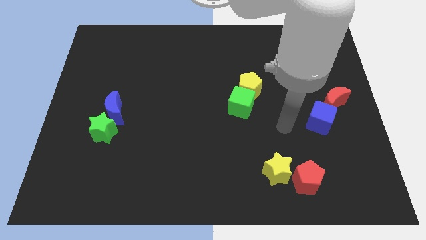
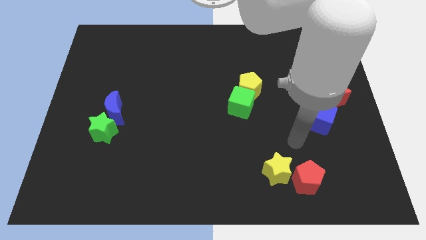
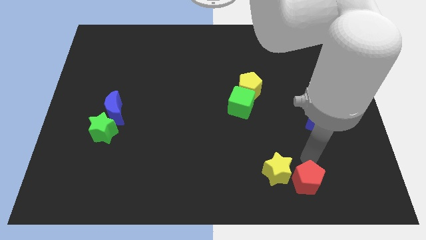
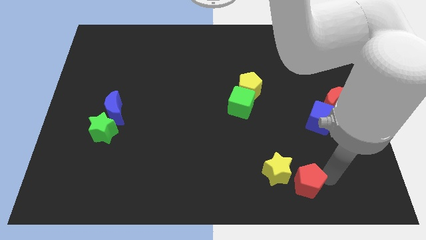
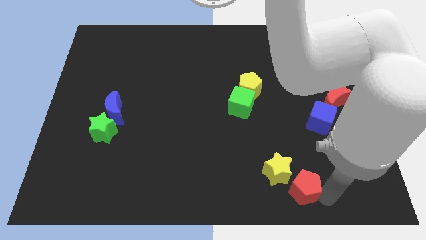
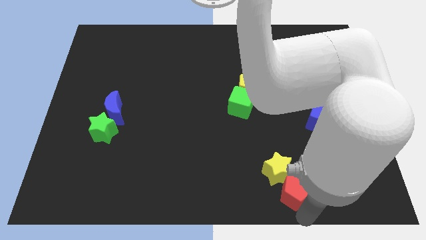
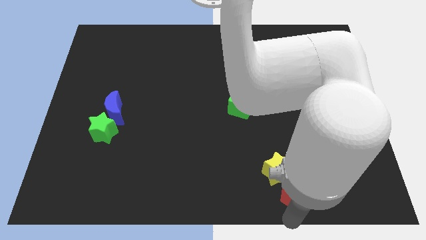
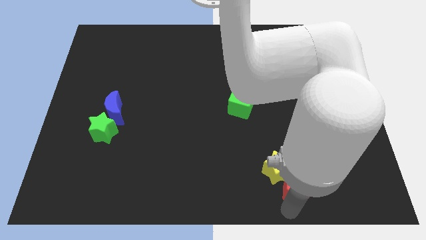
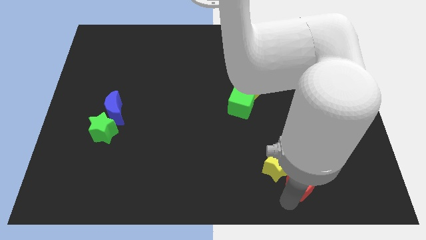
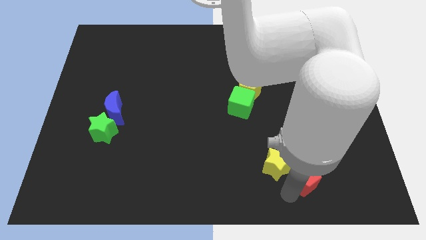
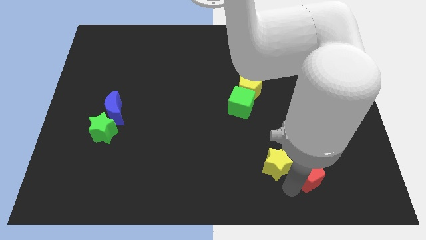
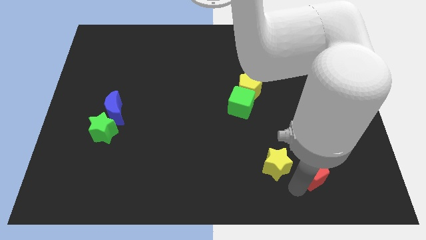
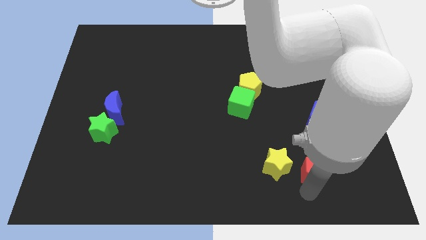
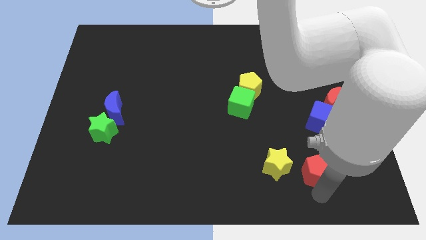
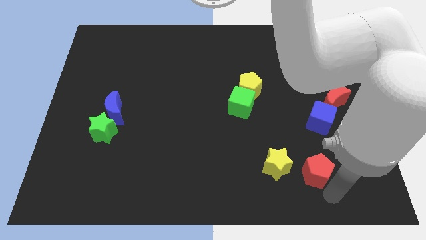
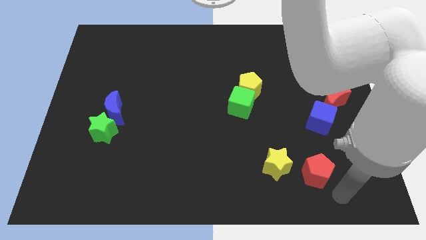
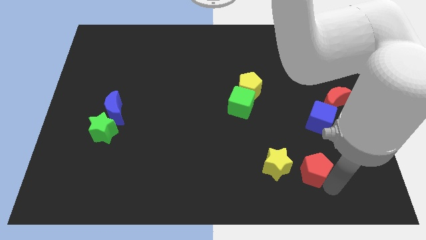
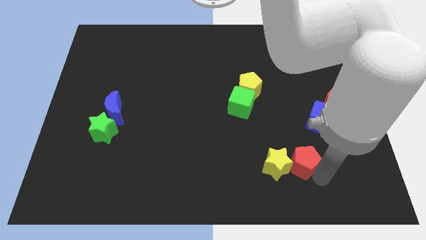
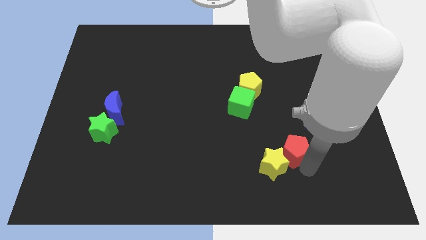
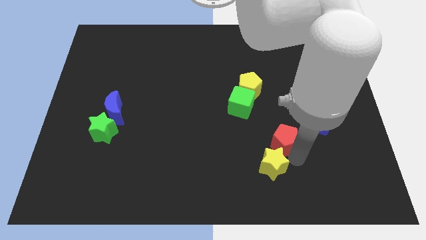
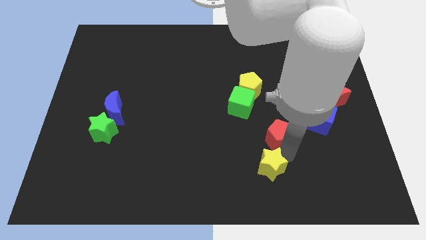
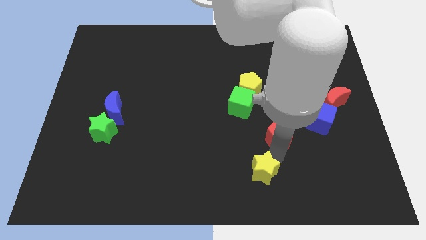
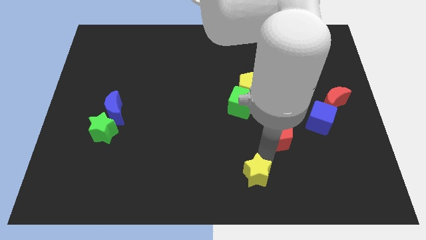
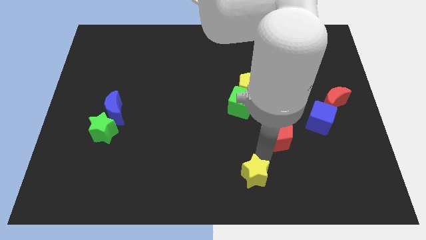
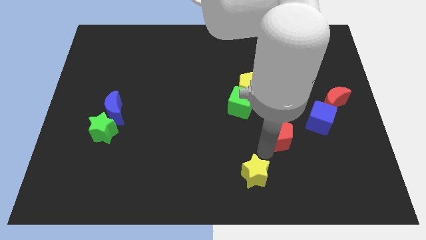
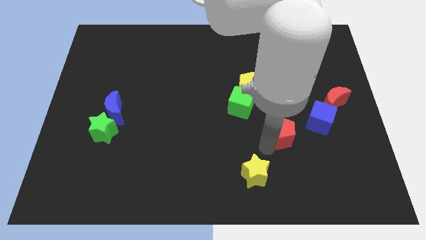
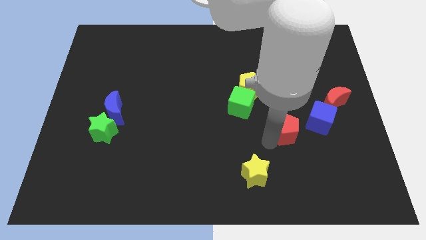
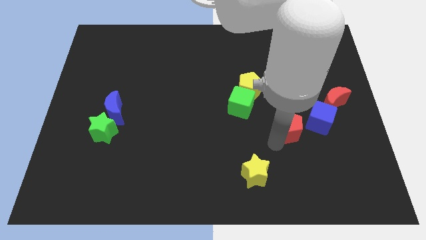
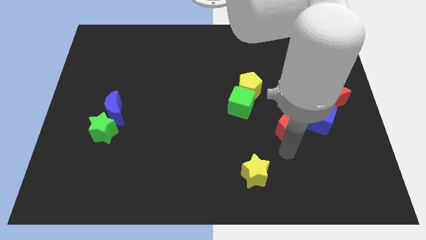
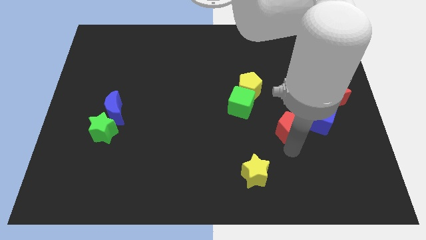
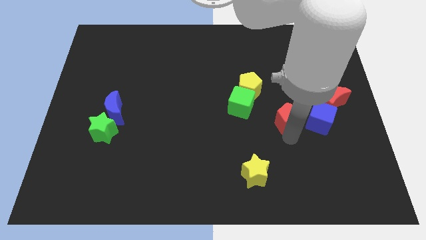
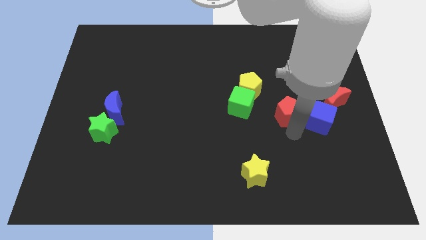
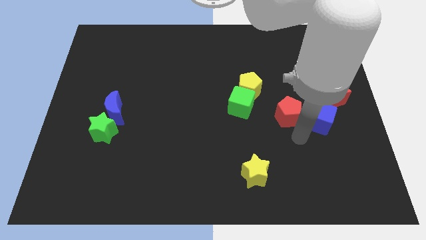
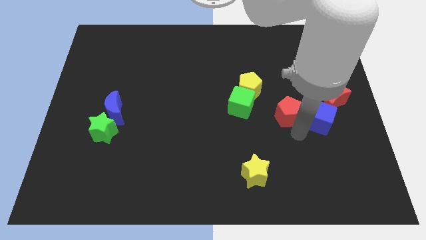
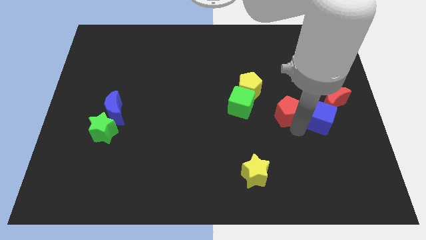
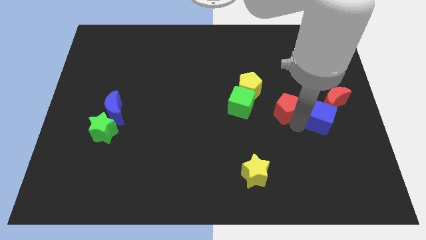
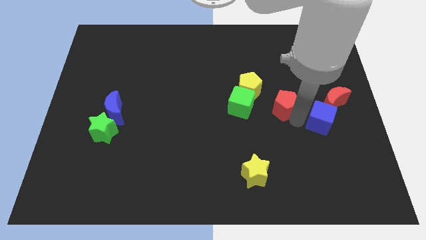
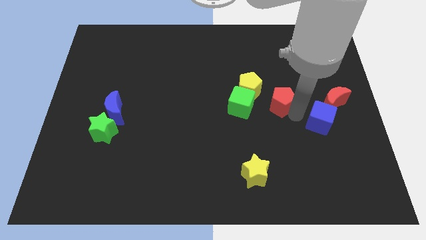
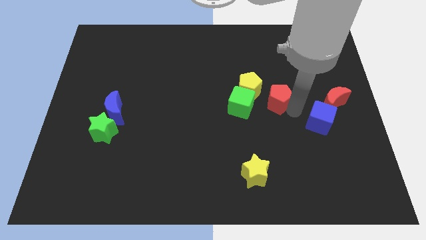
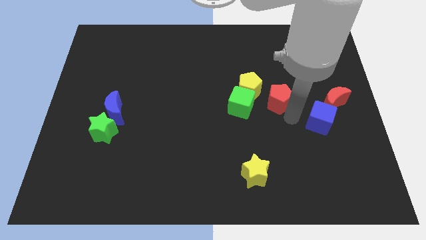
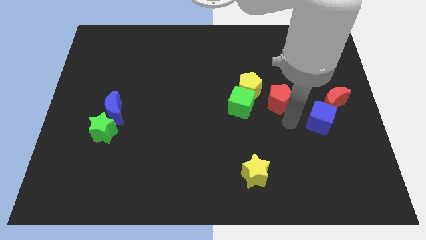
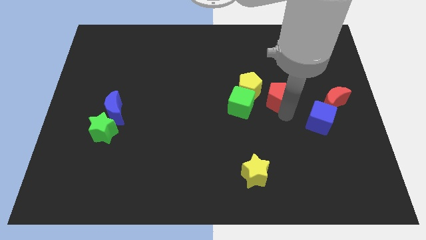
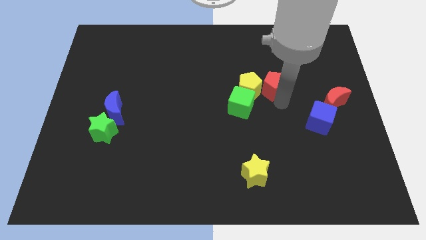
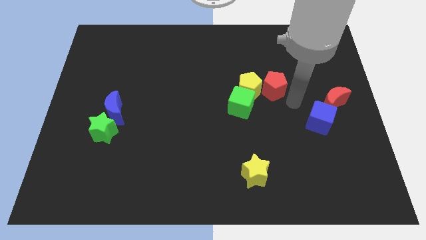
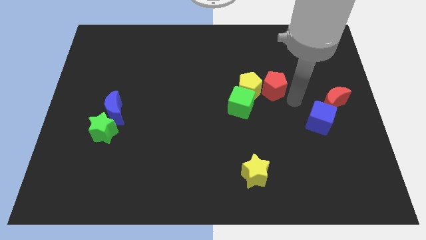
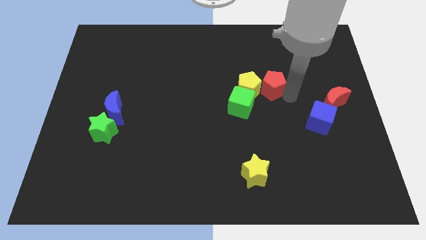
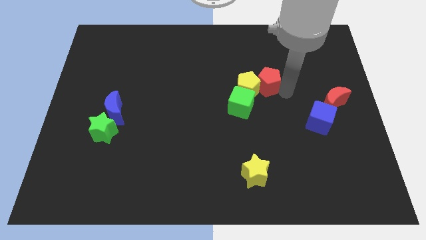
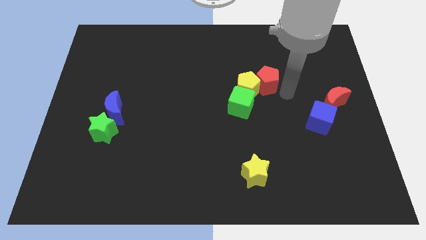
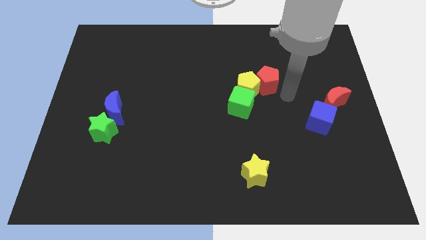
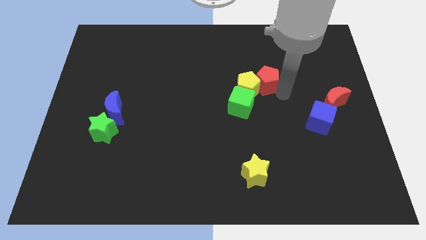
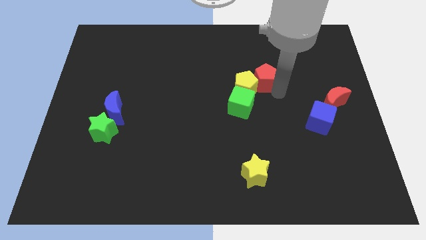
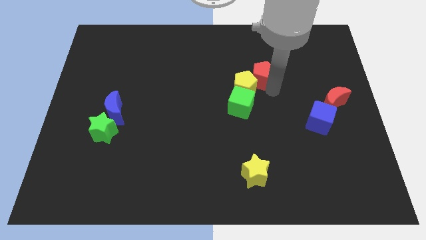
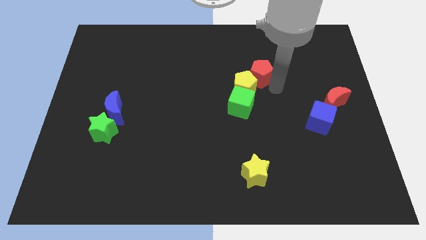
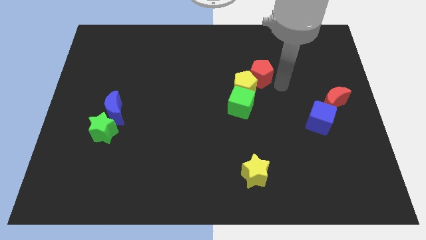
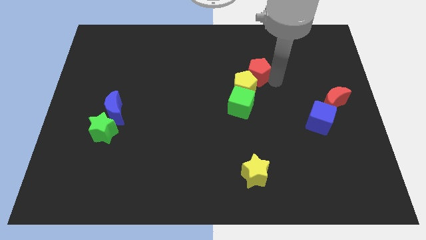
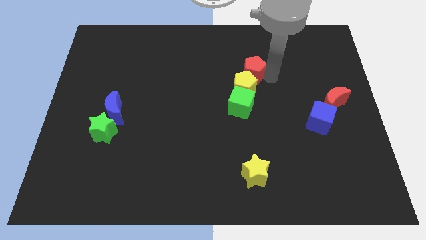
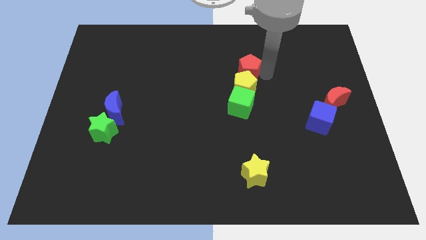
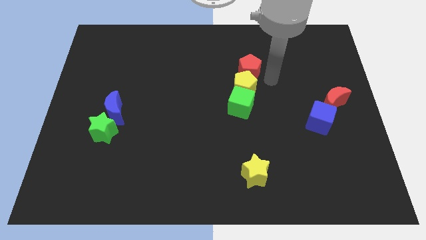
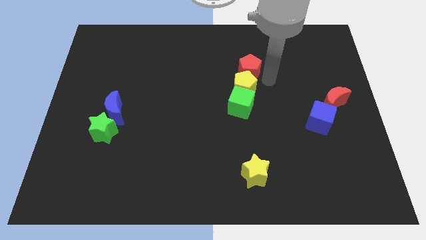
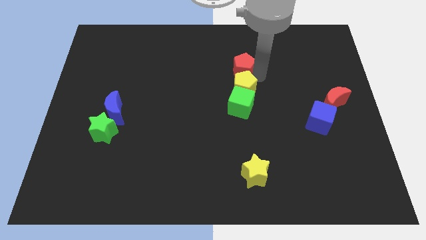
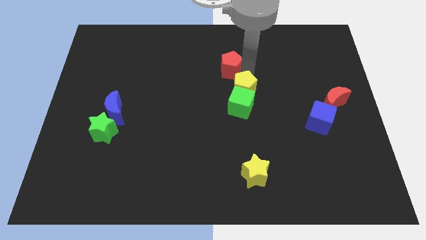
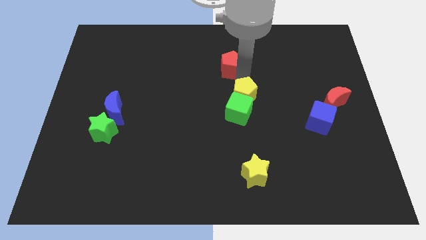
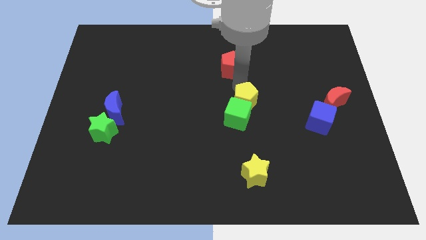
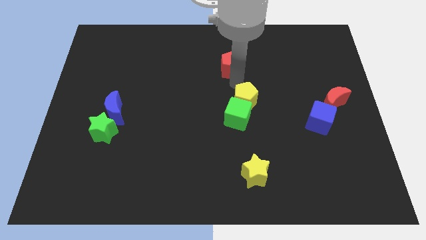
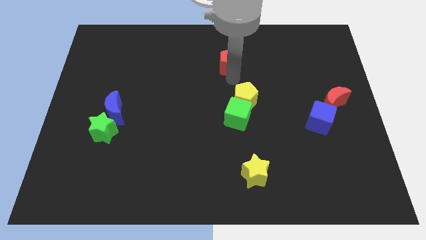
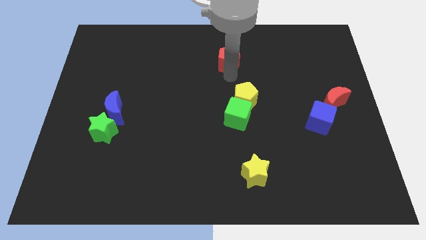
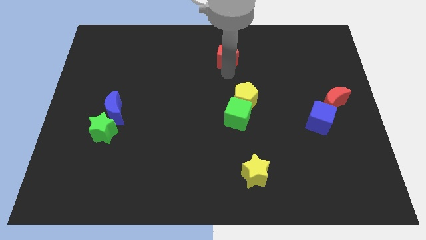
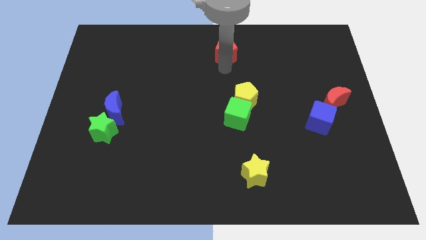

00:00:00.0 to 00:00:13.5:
put the red pentagon to the top

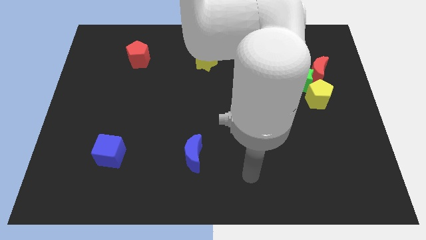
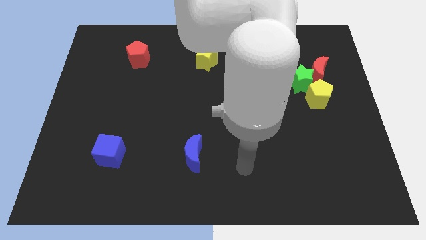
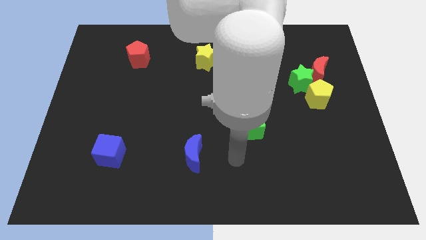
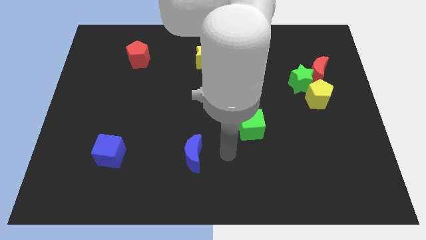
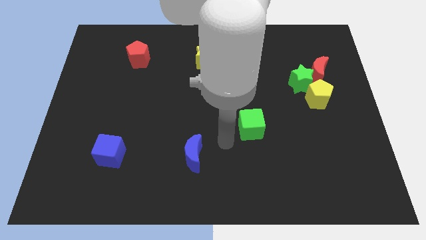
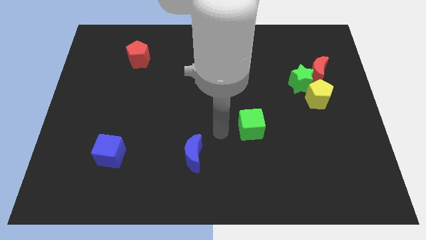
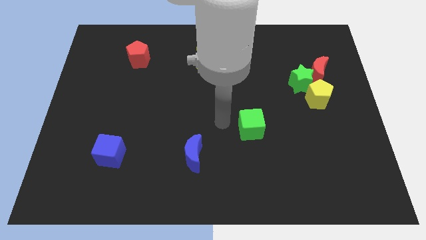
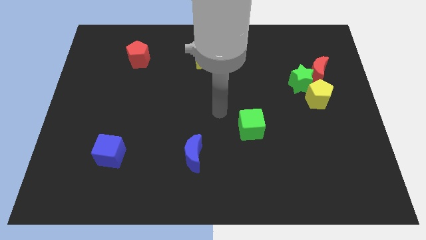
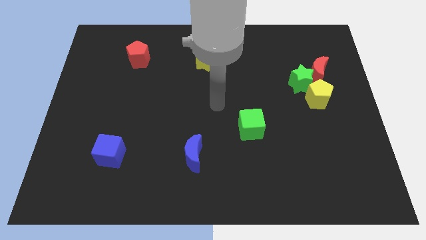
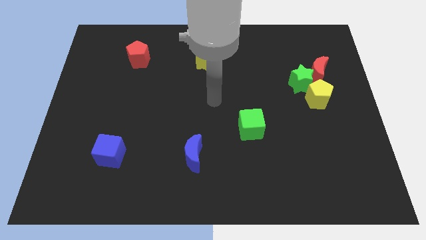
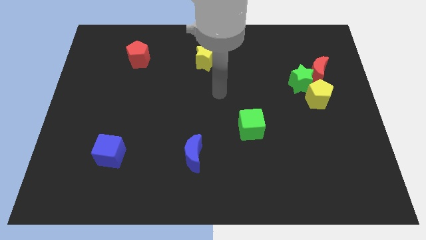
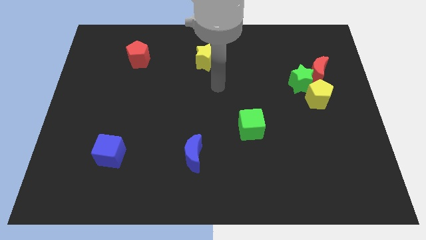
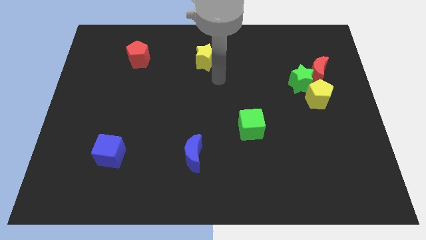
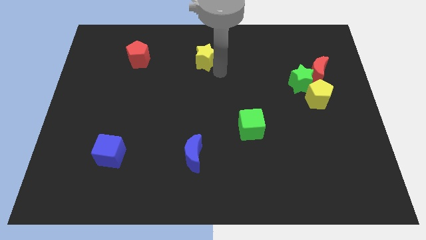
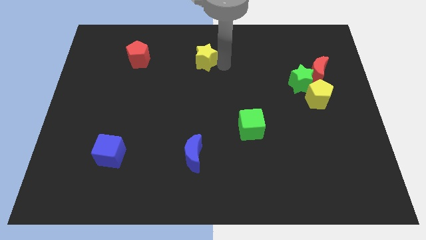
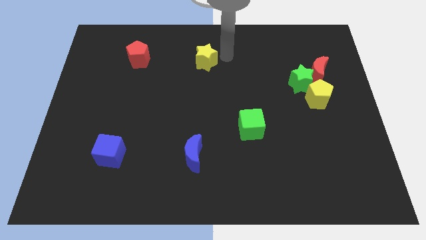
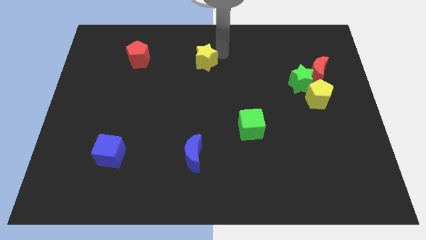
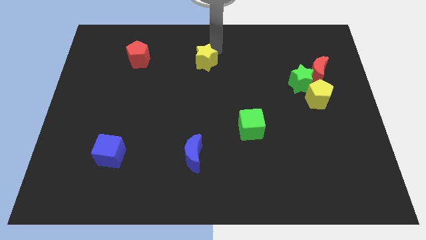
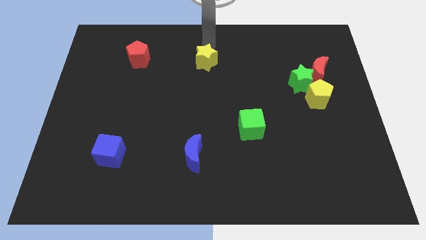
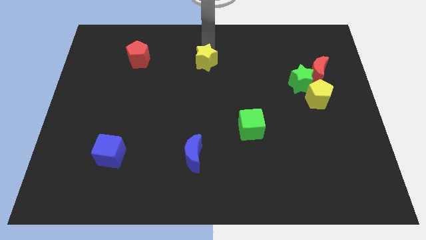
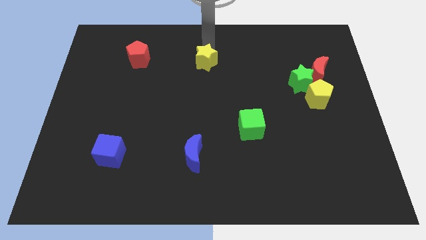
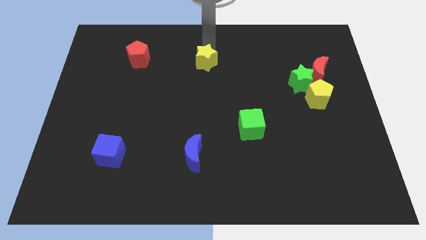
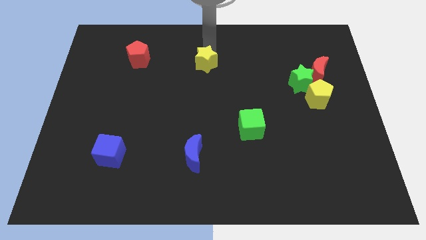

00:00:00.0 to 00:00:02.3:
push the yellow star to the center
